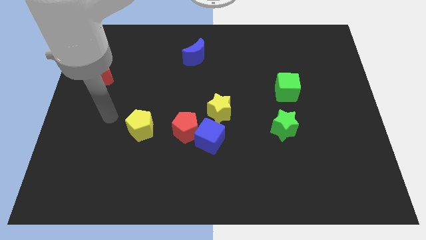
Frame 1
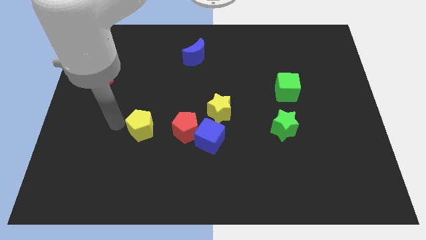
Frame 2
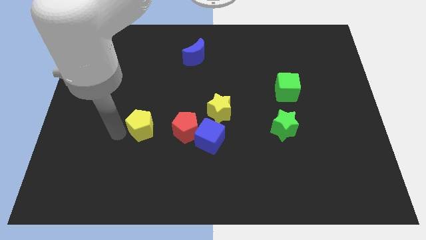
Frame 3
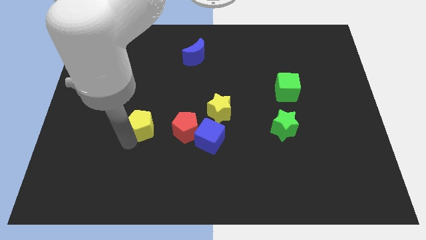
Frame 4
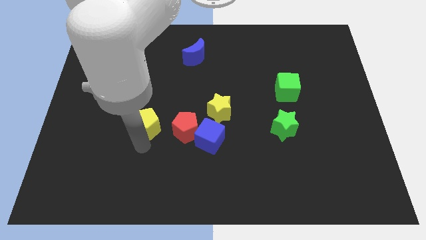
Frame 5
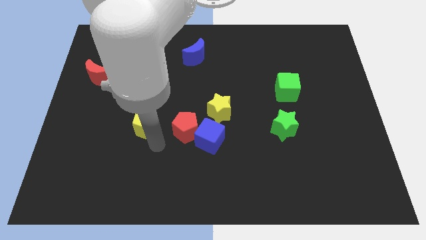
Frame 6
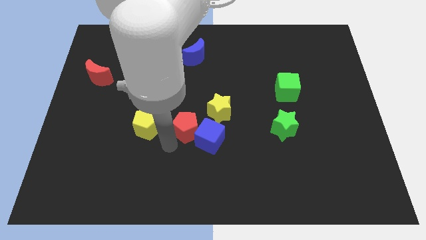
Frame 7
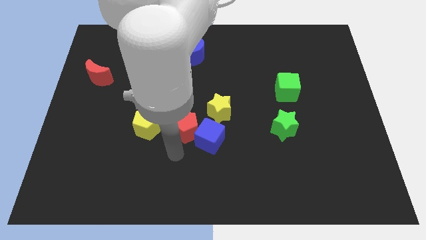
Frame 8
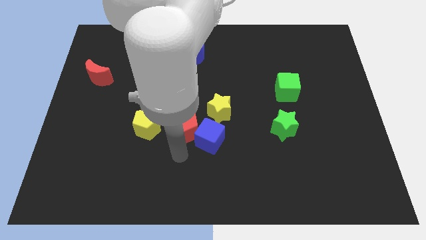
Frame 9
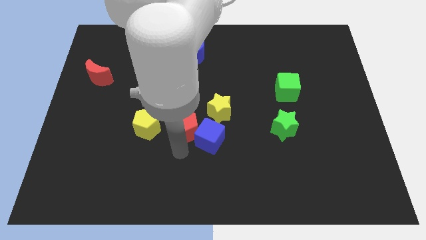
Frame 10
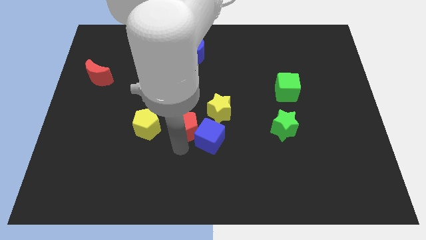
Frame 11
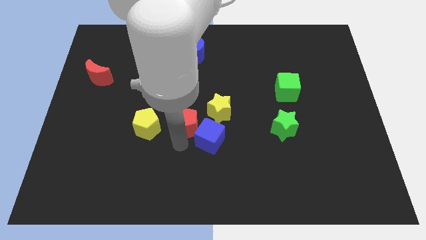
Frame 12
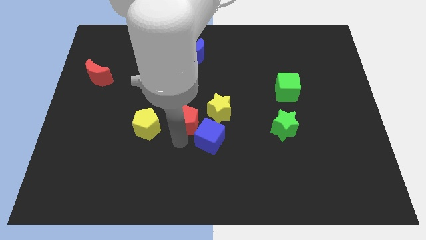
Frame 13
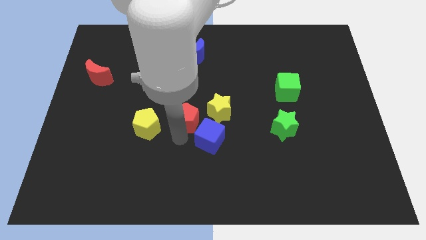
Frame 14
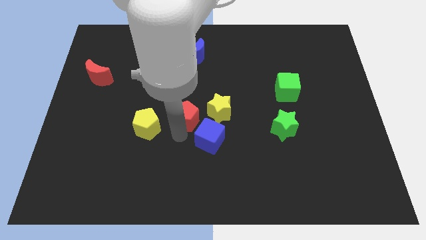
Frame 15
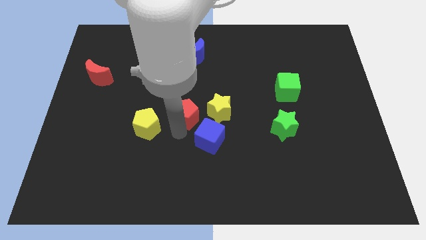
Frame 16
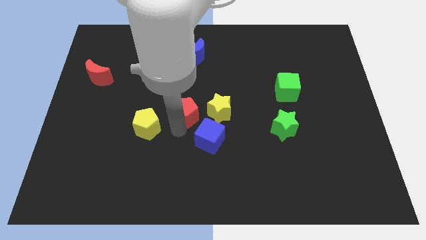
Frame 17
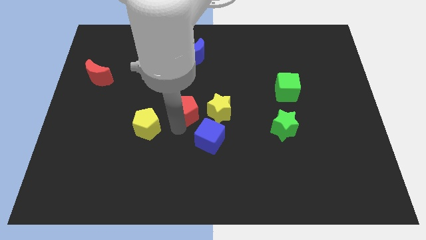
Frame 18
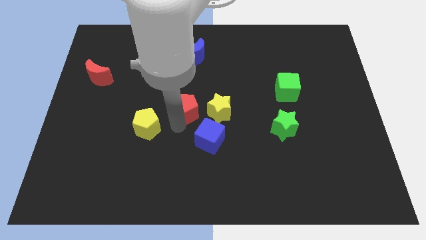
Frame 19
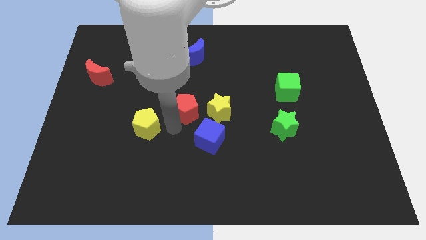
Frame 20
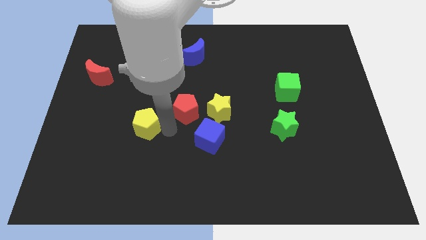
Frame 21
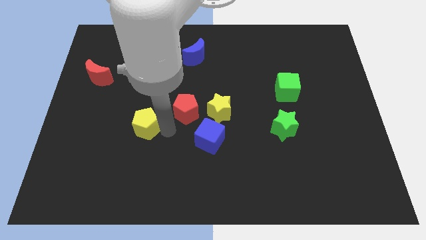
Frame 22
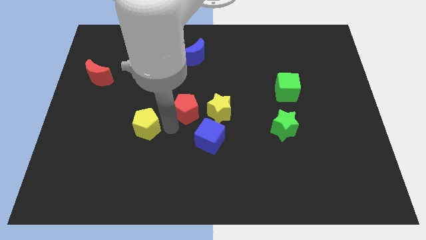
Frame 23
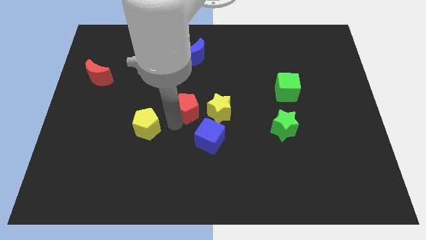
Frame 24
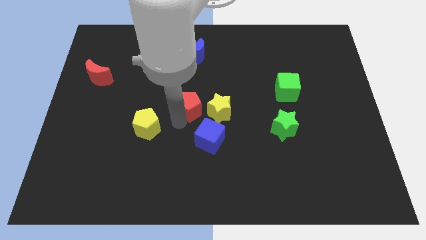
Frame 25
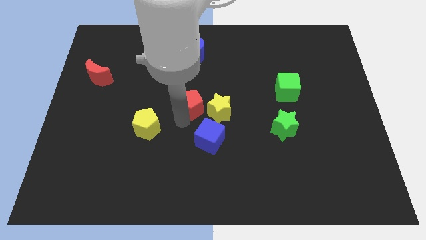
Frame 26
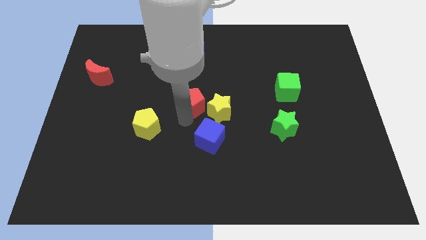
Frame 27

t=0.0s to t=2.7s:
move the red pentagon upwards somewhat

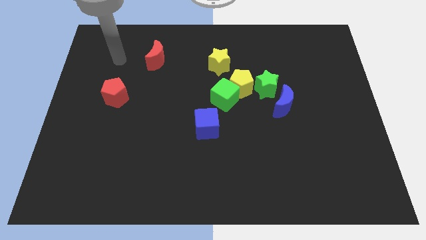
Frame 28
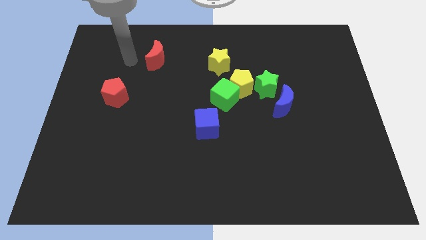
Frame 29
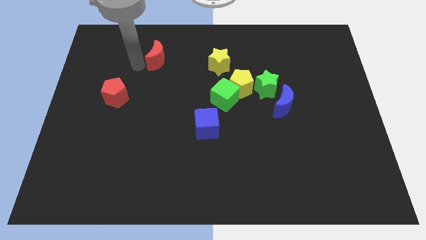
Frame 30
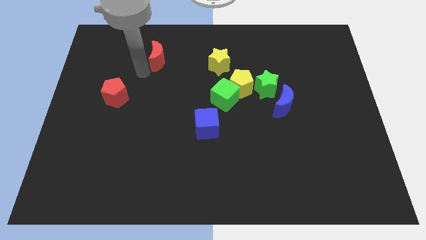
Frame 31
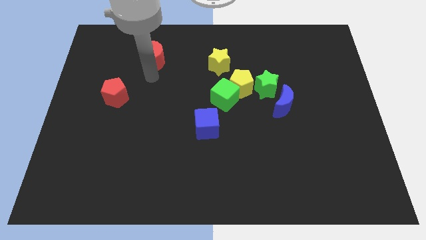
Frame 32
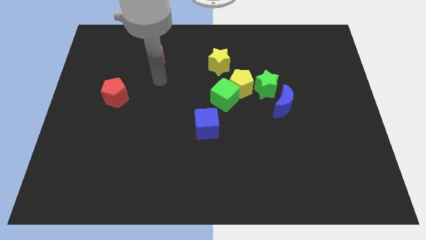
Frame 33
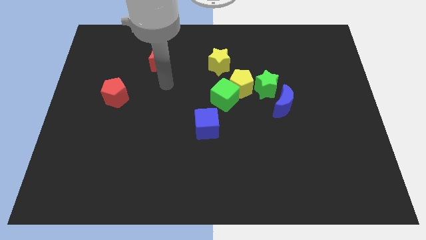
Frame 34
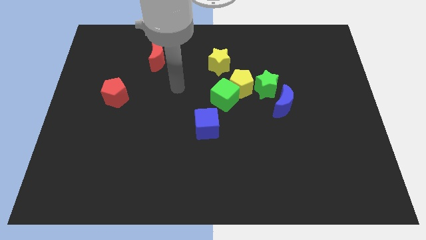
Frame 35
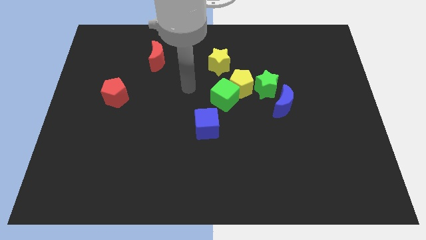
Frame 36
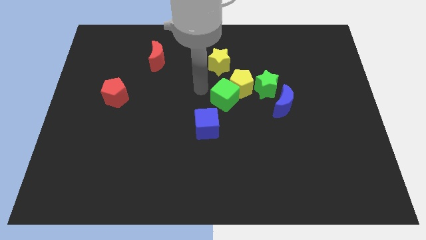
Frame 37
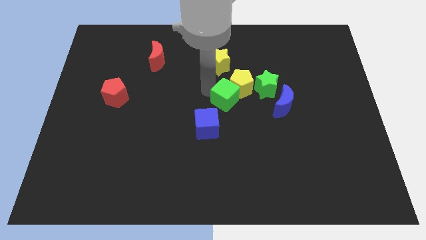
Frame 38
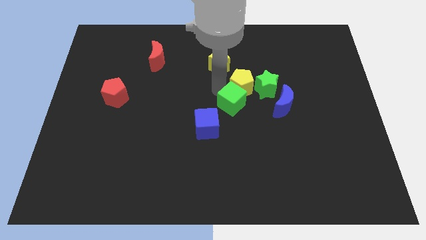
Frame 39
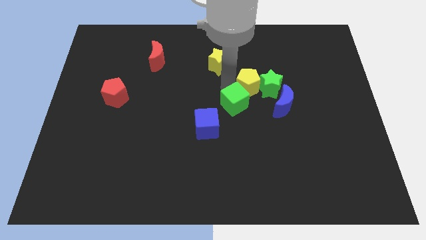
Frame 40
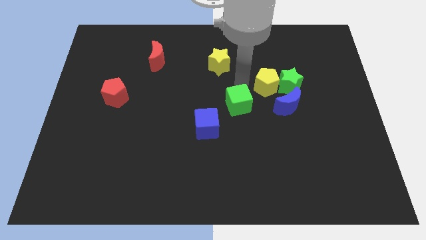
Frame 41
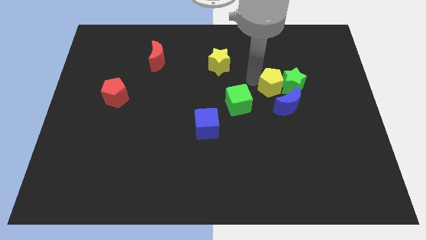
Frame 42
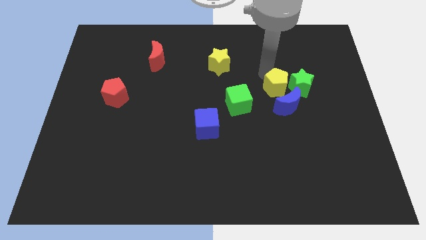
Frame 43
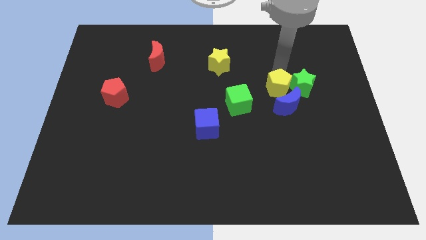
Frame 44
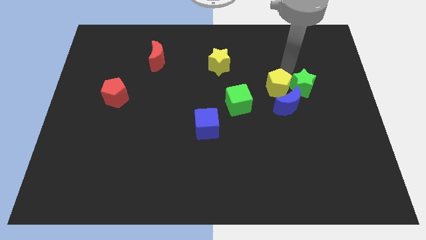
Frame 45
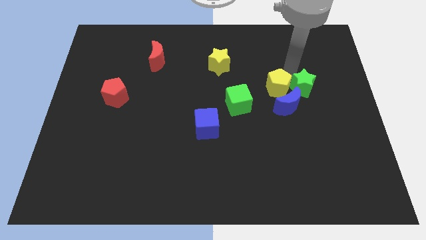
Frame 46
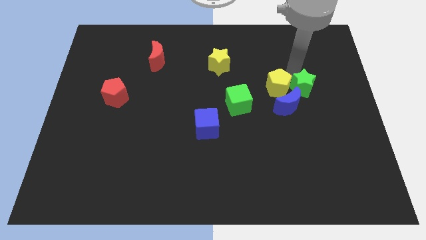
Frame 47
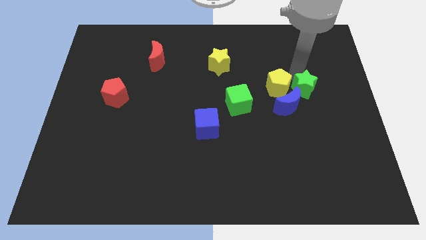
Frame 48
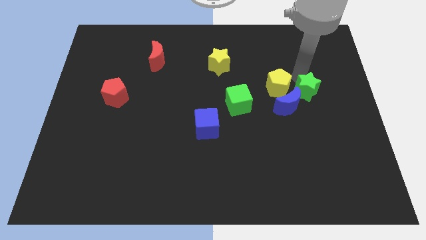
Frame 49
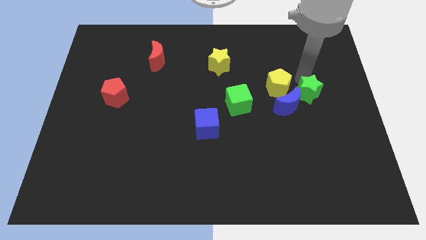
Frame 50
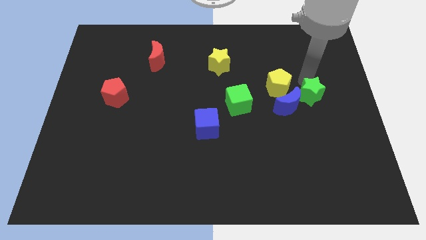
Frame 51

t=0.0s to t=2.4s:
push the green star a little downwards and to the right diagonally

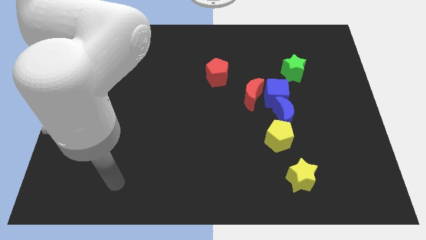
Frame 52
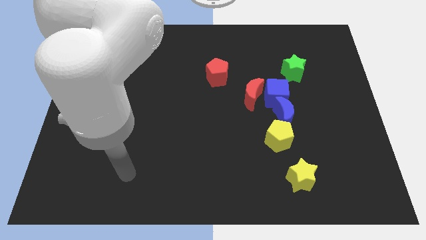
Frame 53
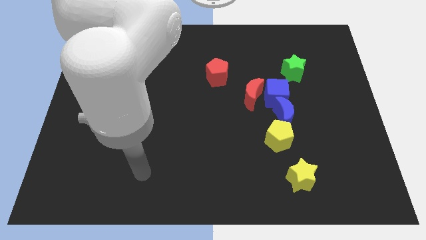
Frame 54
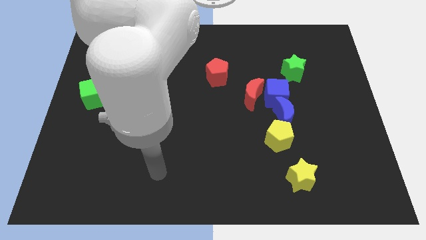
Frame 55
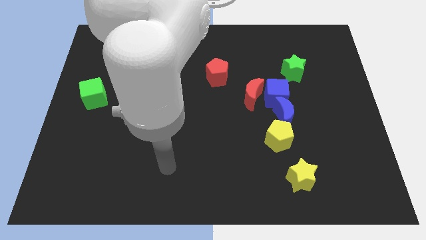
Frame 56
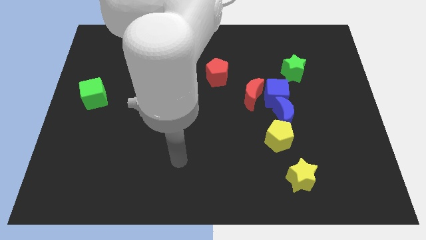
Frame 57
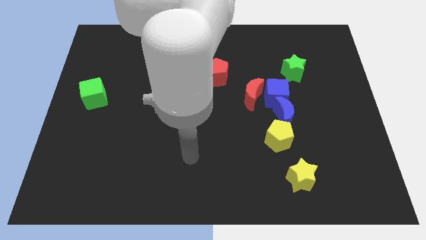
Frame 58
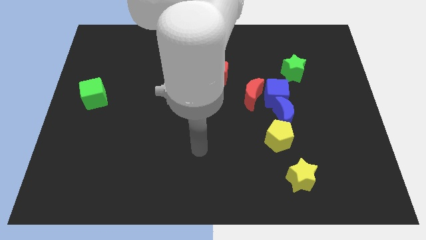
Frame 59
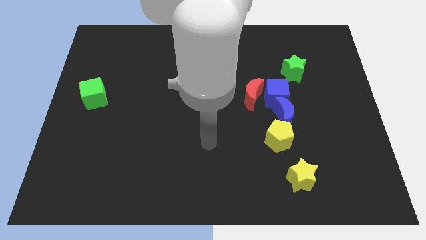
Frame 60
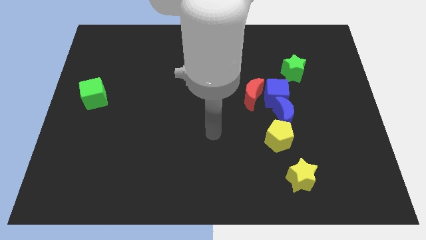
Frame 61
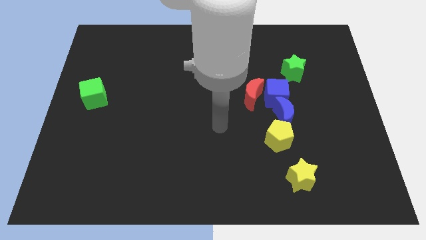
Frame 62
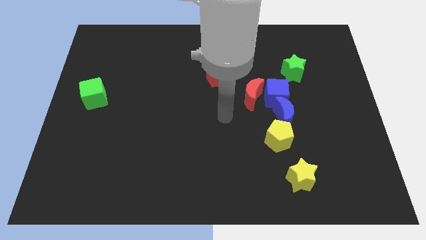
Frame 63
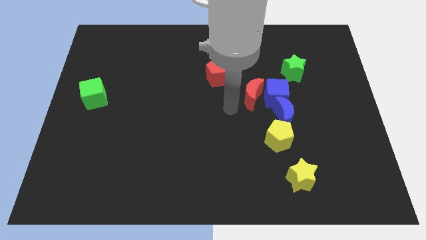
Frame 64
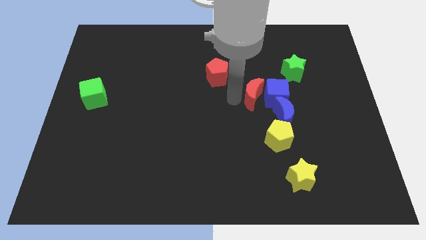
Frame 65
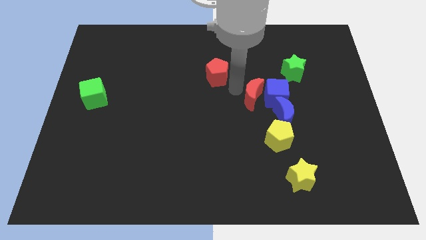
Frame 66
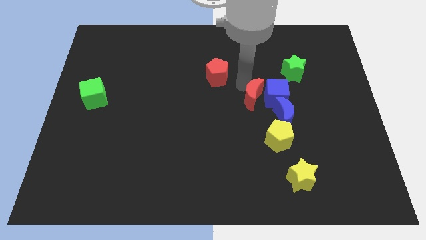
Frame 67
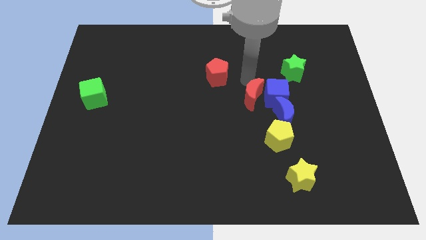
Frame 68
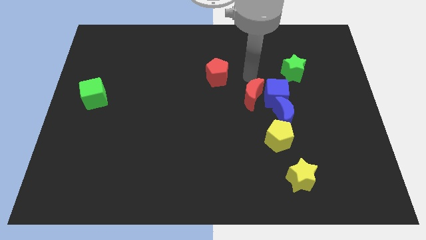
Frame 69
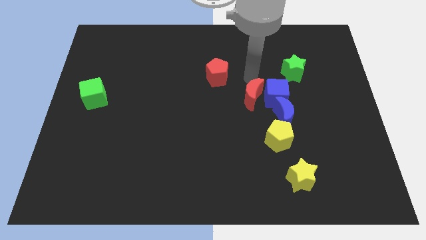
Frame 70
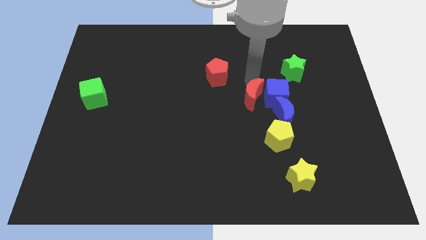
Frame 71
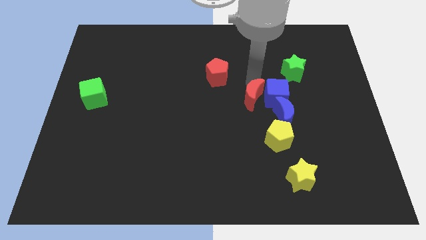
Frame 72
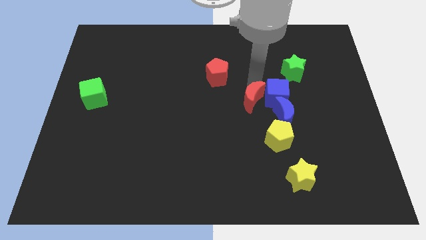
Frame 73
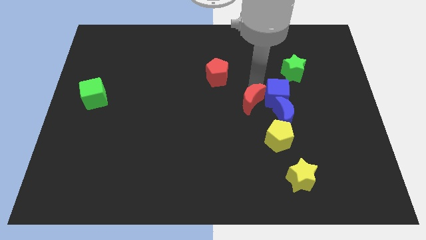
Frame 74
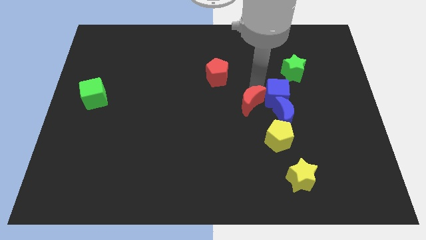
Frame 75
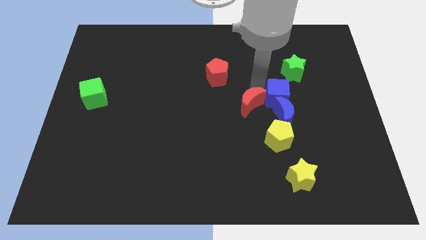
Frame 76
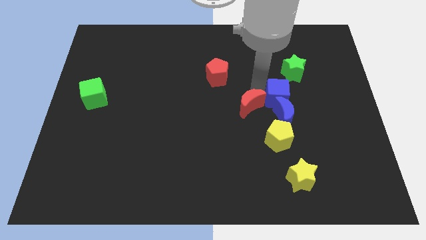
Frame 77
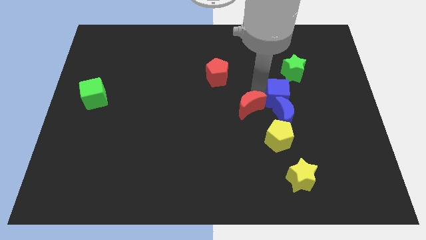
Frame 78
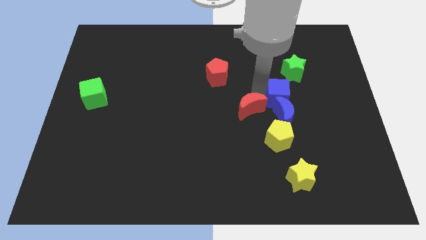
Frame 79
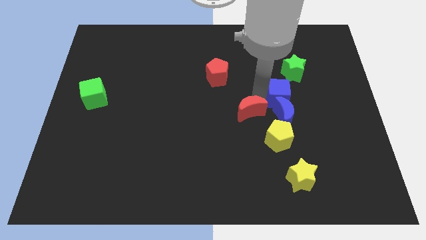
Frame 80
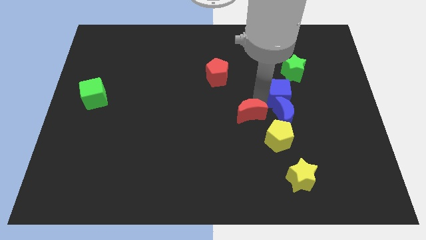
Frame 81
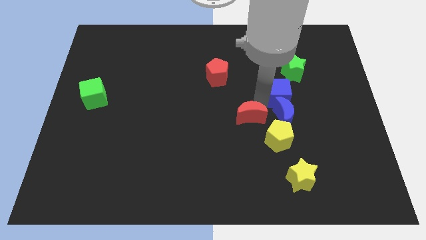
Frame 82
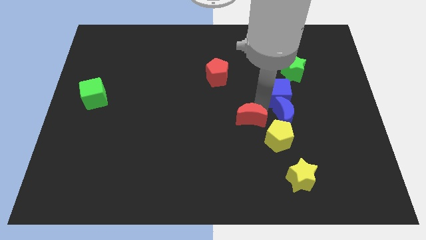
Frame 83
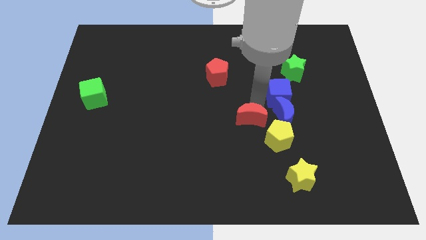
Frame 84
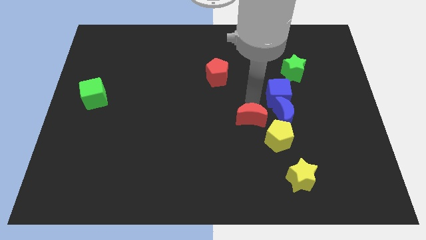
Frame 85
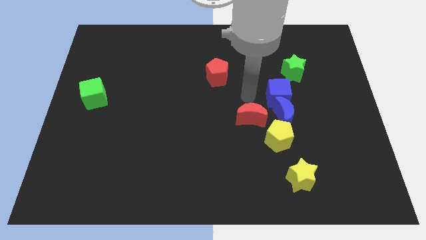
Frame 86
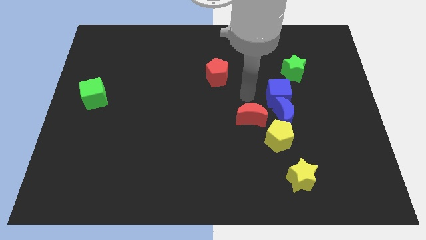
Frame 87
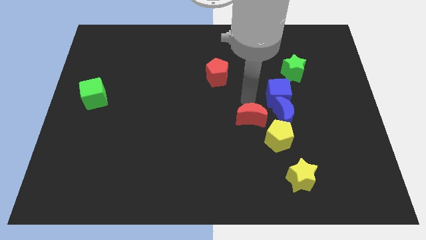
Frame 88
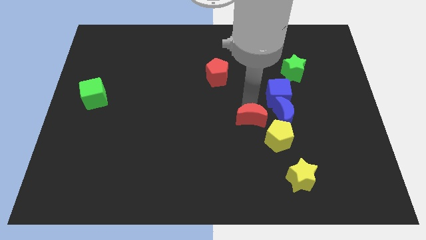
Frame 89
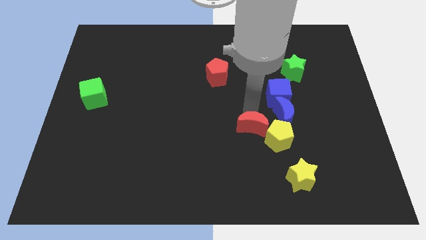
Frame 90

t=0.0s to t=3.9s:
slightly push the red moon downwards
